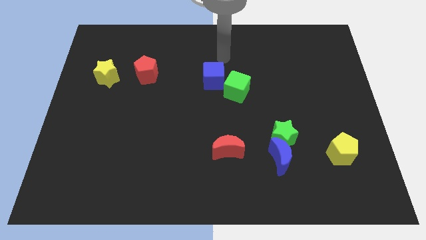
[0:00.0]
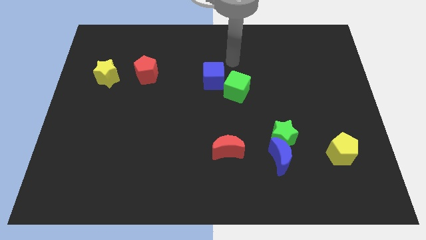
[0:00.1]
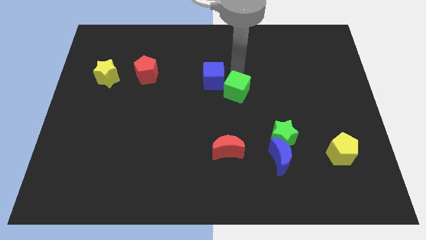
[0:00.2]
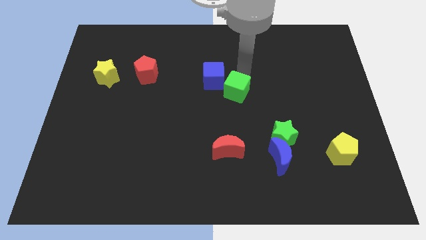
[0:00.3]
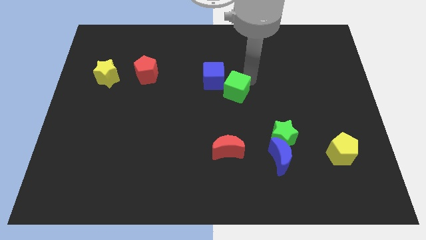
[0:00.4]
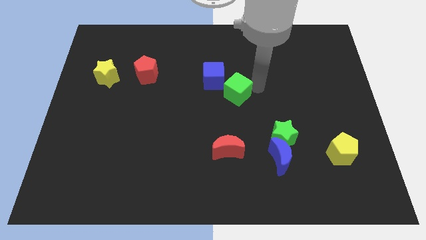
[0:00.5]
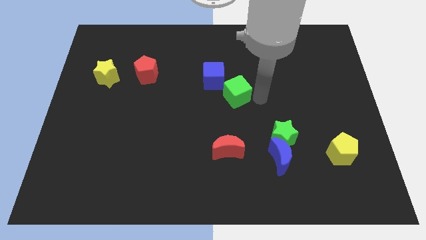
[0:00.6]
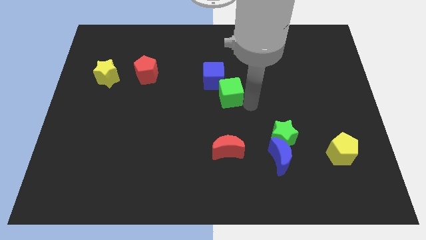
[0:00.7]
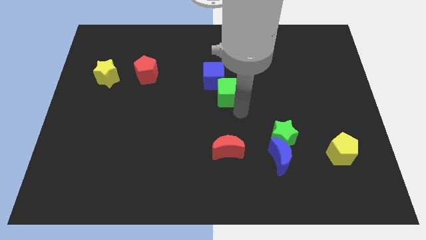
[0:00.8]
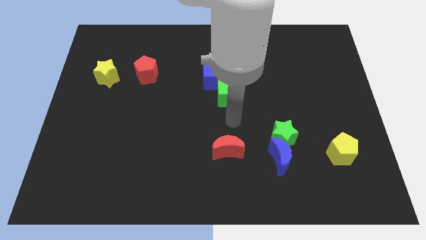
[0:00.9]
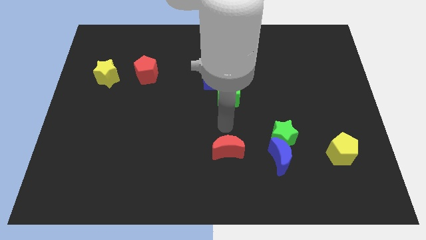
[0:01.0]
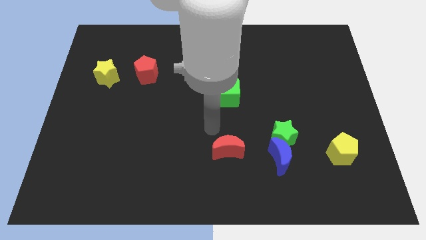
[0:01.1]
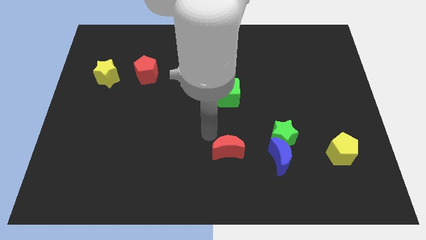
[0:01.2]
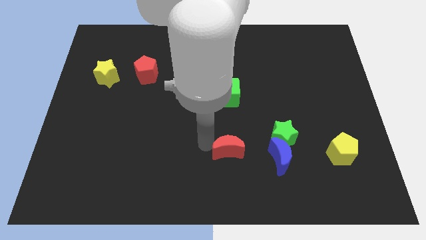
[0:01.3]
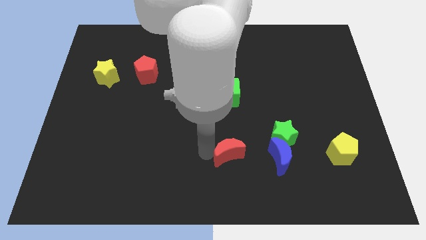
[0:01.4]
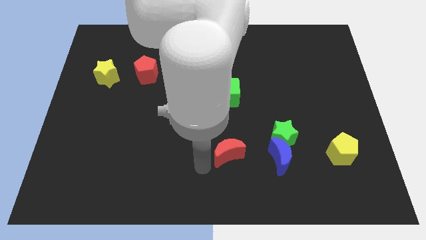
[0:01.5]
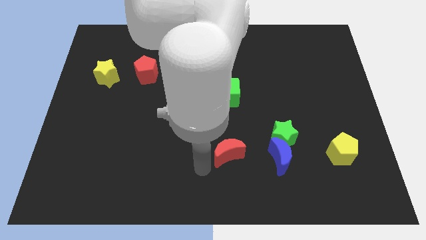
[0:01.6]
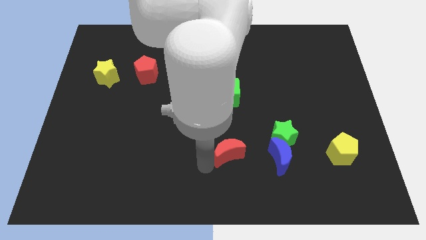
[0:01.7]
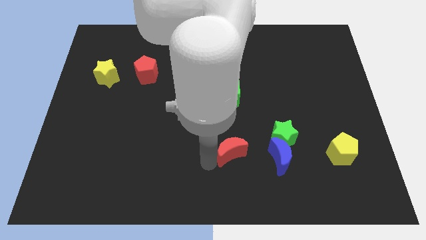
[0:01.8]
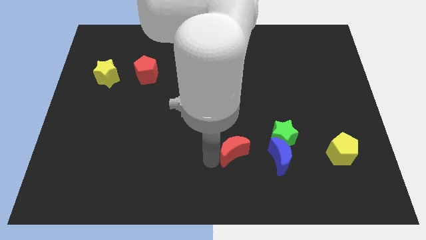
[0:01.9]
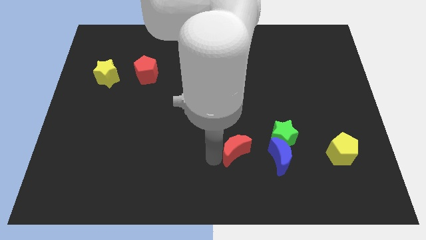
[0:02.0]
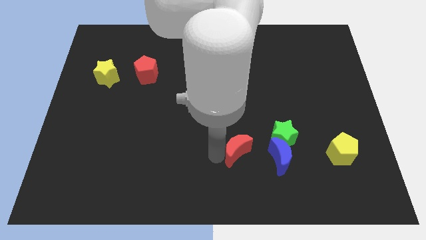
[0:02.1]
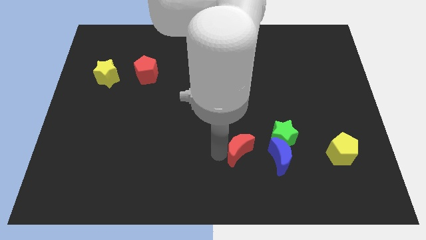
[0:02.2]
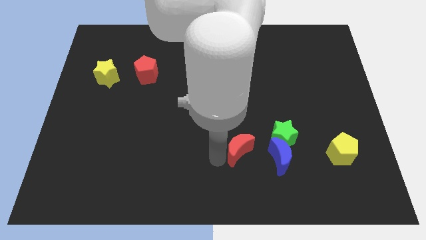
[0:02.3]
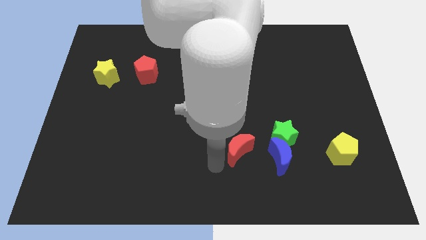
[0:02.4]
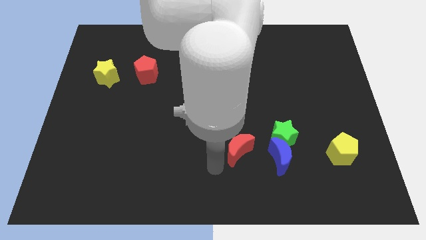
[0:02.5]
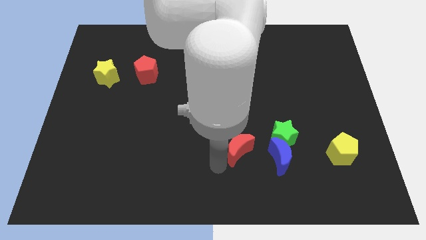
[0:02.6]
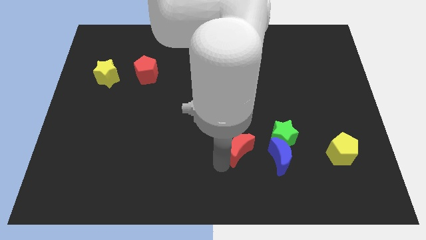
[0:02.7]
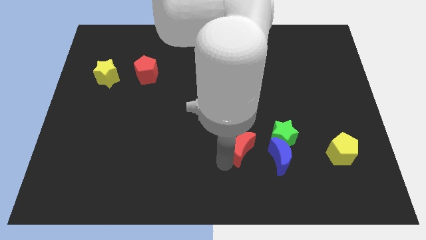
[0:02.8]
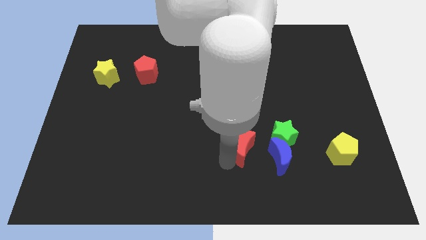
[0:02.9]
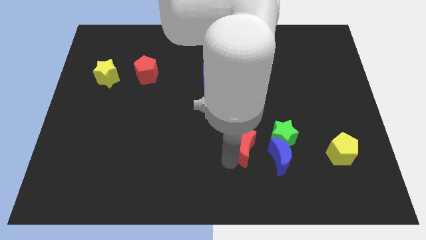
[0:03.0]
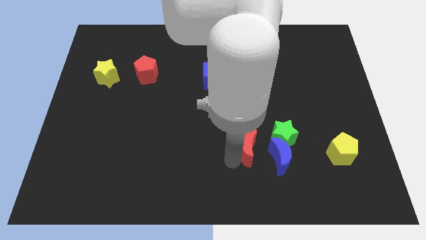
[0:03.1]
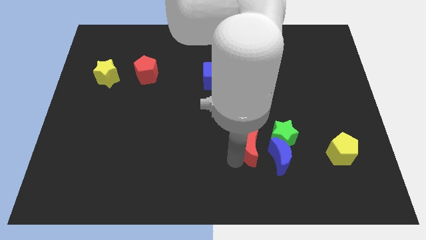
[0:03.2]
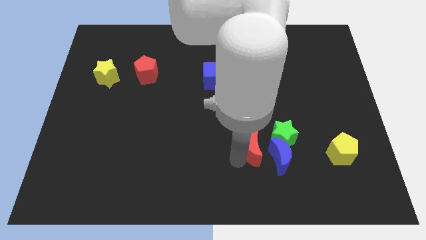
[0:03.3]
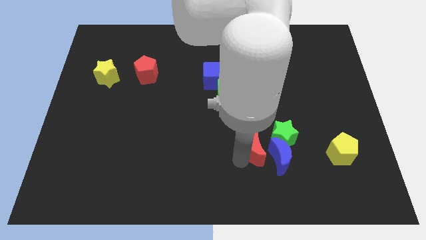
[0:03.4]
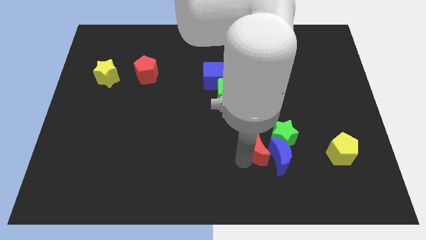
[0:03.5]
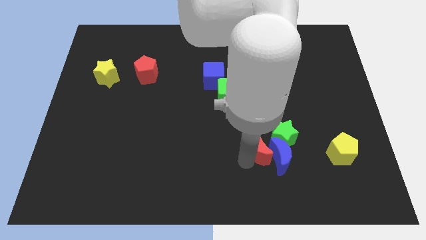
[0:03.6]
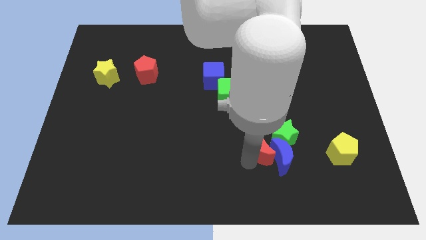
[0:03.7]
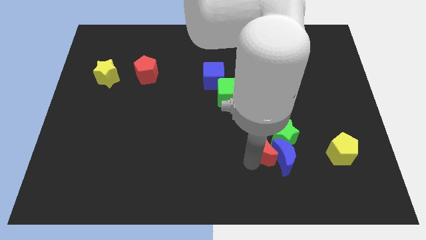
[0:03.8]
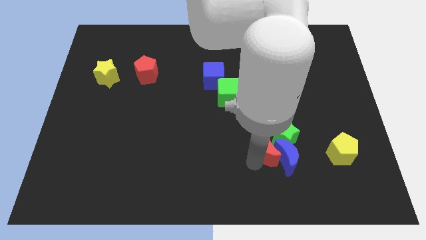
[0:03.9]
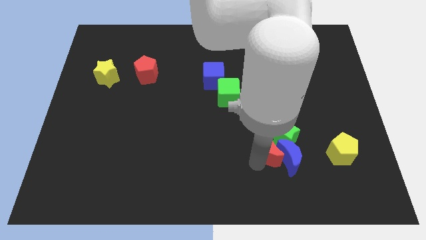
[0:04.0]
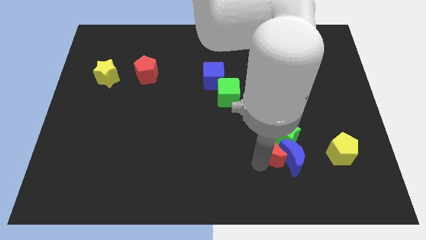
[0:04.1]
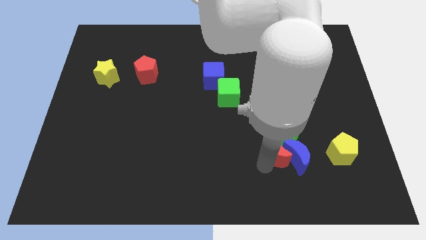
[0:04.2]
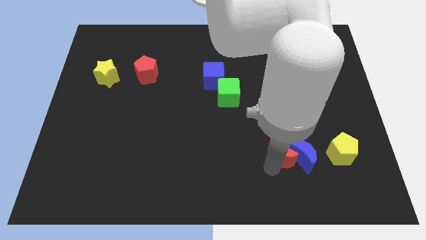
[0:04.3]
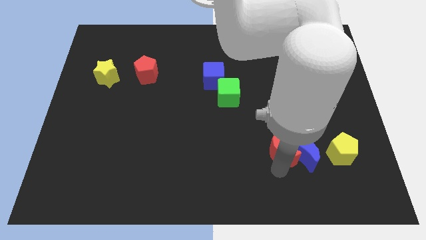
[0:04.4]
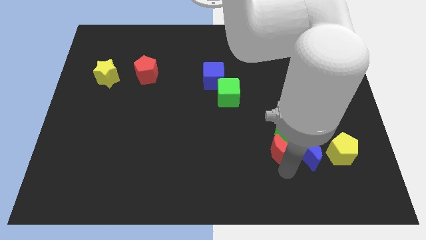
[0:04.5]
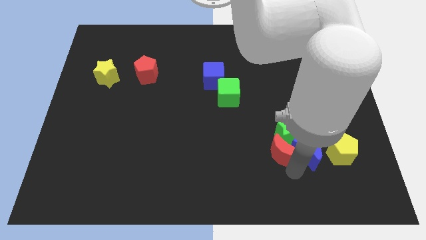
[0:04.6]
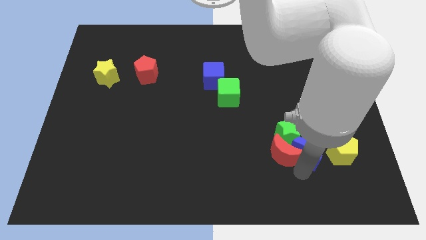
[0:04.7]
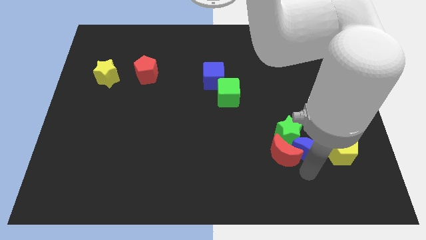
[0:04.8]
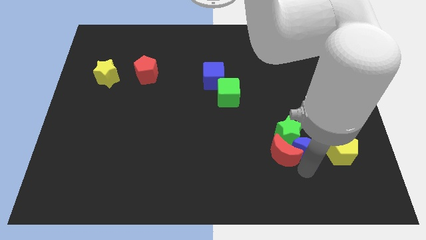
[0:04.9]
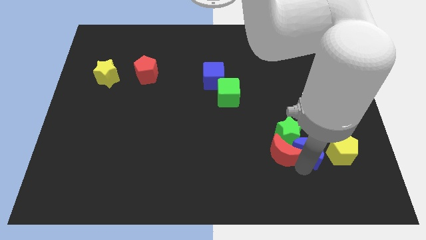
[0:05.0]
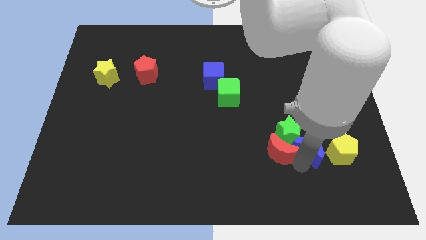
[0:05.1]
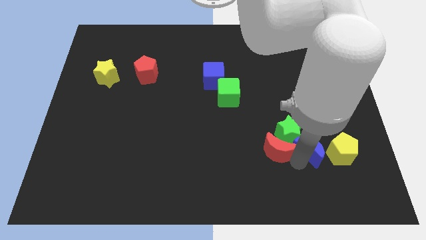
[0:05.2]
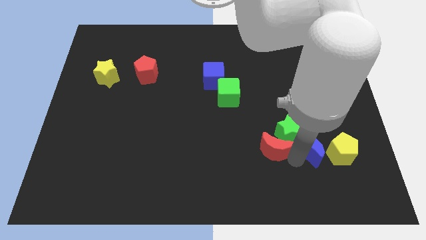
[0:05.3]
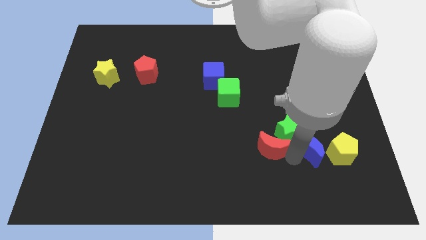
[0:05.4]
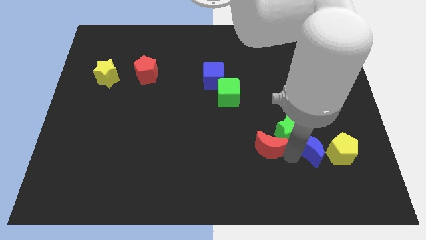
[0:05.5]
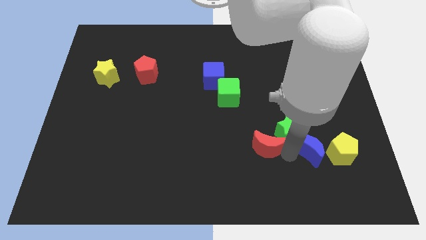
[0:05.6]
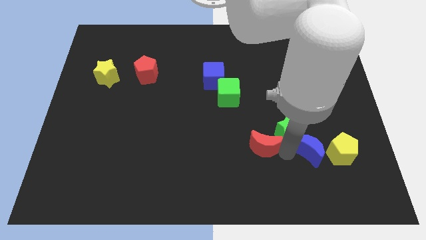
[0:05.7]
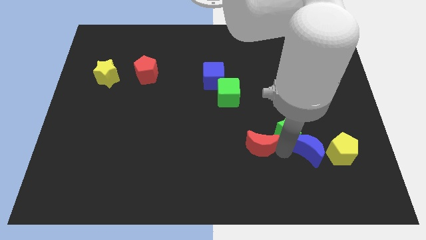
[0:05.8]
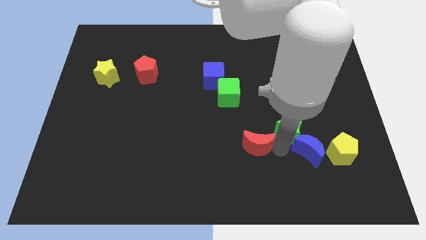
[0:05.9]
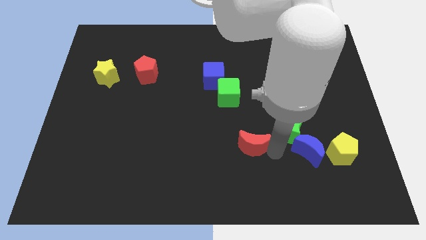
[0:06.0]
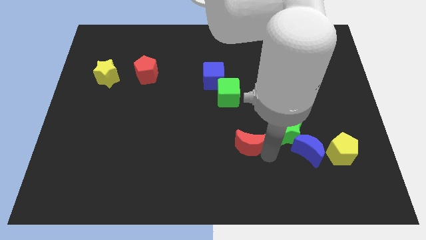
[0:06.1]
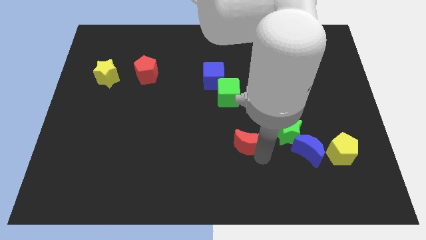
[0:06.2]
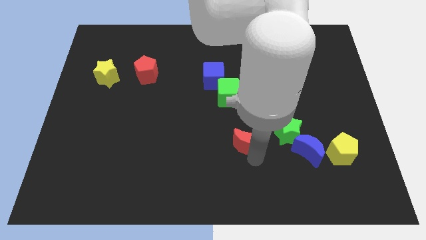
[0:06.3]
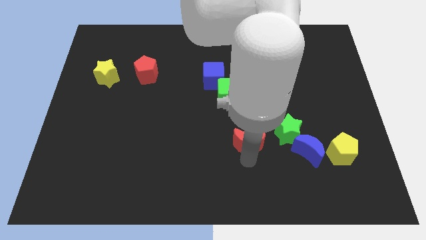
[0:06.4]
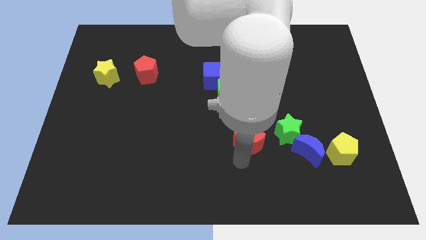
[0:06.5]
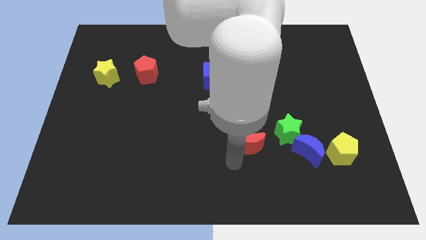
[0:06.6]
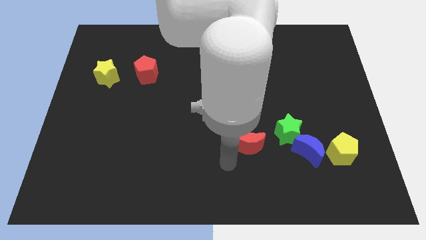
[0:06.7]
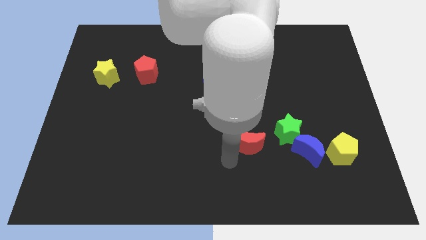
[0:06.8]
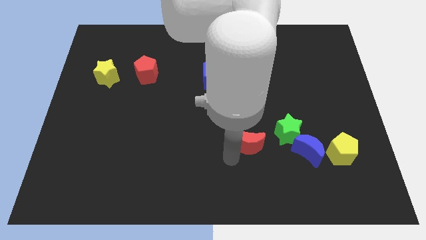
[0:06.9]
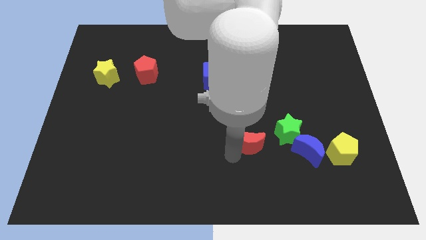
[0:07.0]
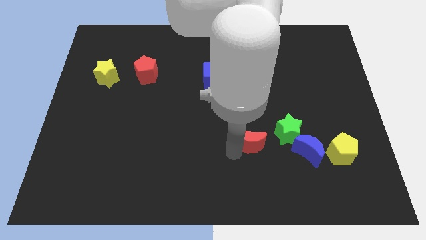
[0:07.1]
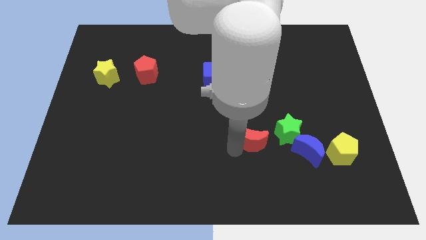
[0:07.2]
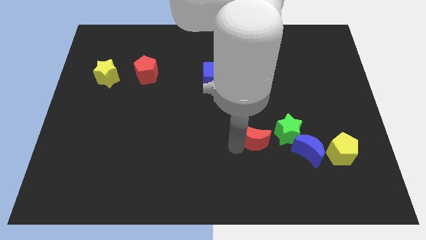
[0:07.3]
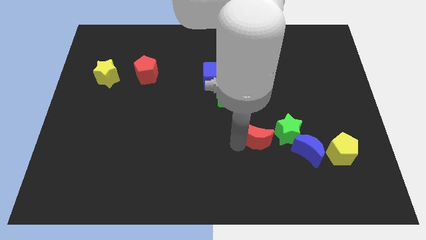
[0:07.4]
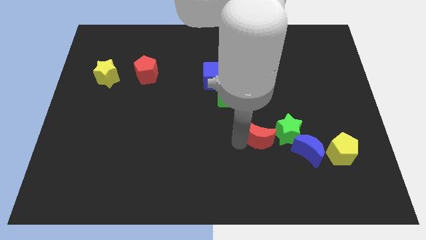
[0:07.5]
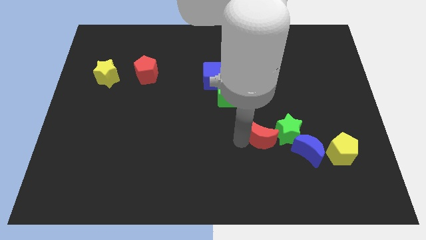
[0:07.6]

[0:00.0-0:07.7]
move the red moon a little bit diagonally up and to the right
